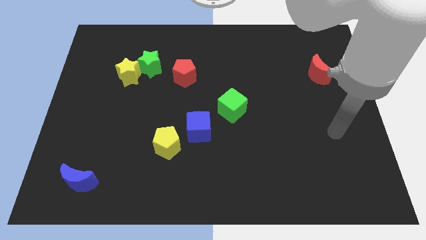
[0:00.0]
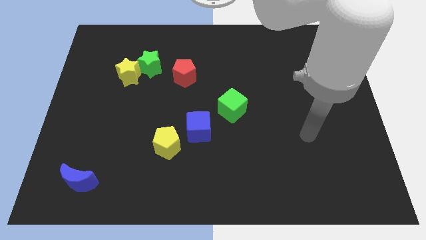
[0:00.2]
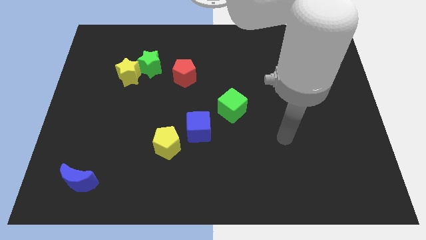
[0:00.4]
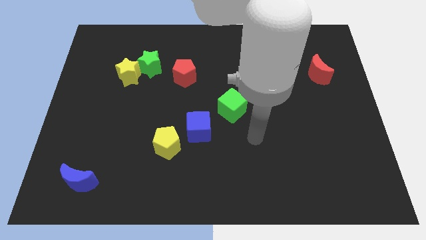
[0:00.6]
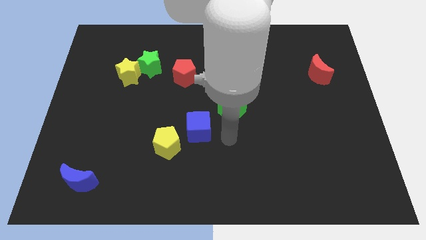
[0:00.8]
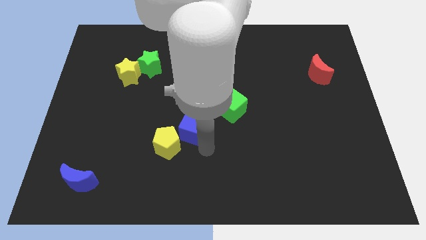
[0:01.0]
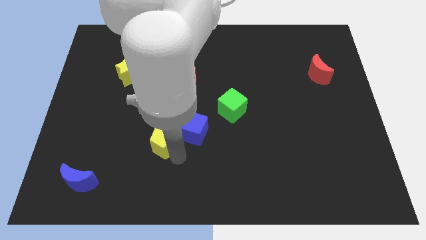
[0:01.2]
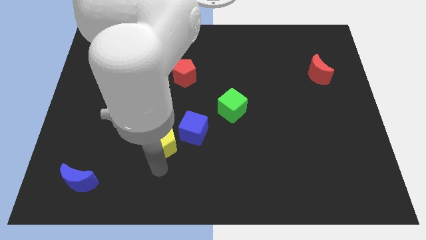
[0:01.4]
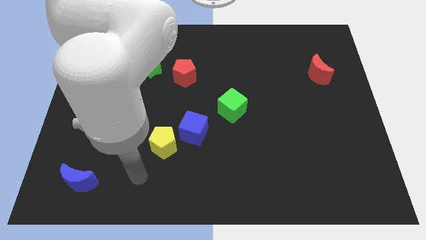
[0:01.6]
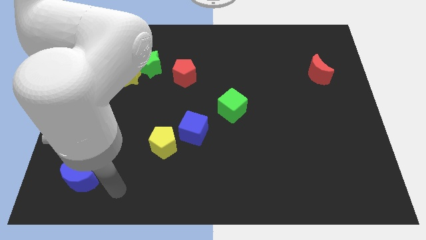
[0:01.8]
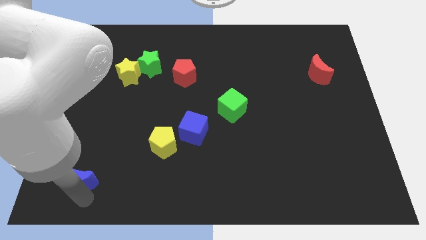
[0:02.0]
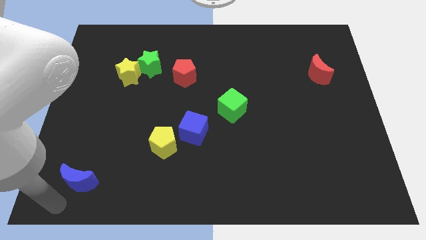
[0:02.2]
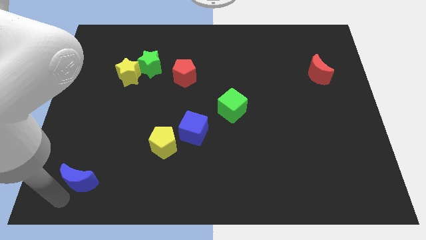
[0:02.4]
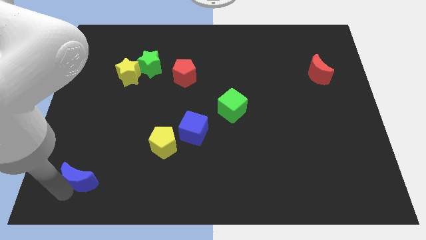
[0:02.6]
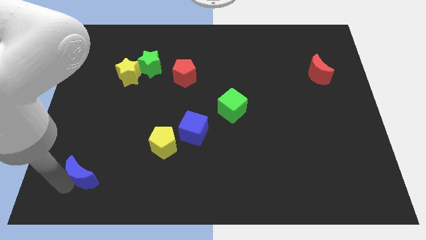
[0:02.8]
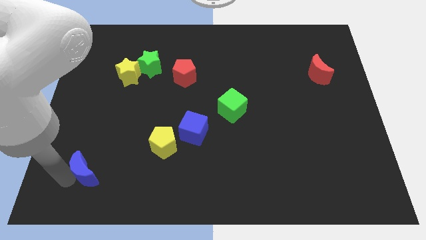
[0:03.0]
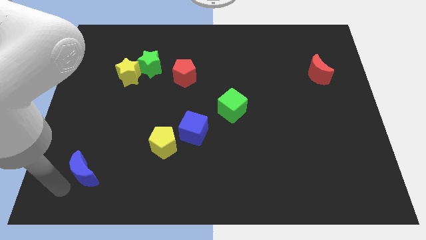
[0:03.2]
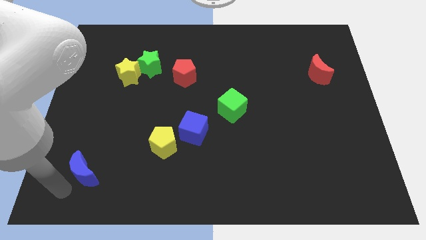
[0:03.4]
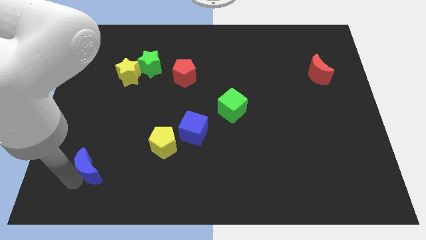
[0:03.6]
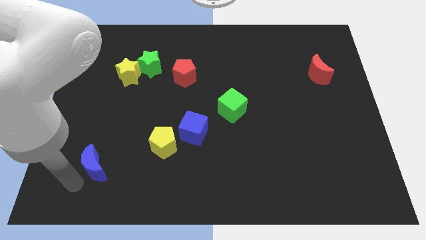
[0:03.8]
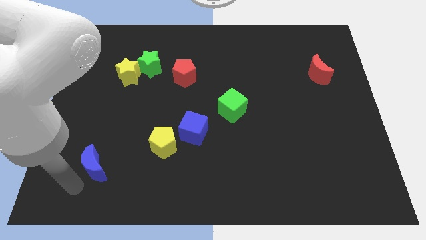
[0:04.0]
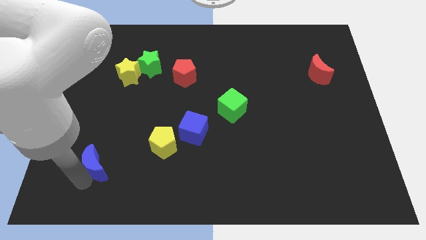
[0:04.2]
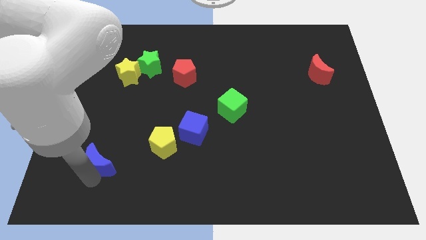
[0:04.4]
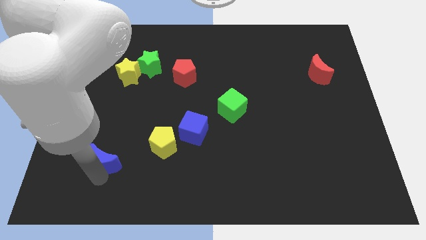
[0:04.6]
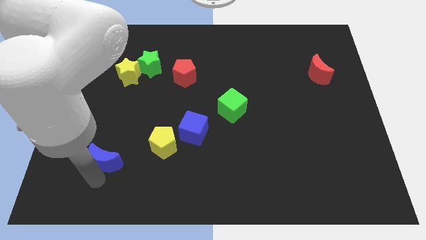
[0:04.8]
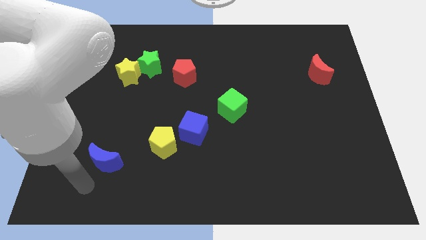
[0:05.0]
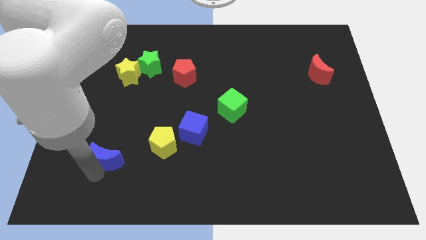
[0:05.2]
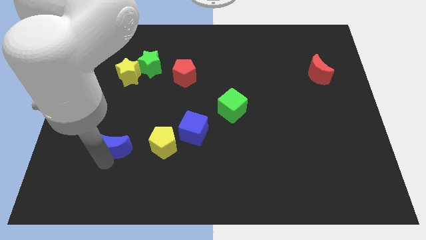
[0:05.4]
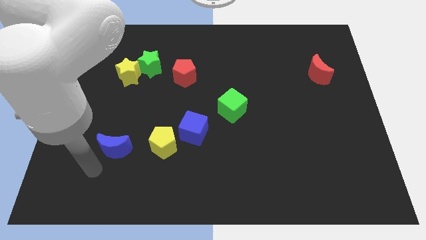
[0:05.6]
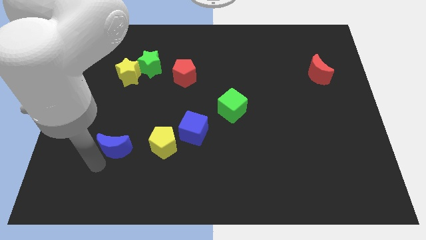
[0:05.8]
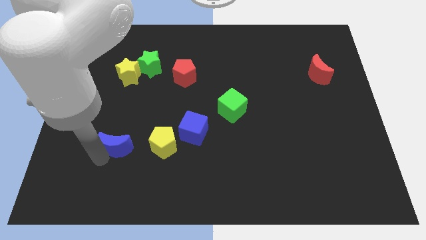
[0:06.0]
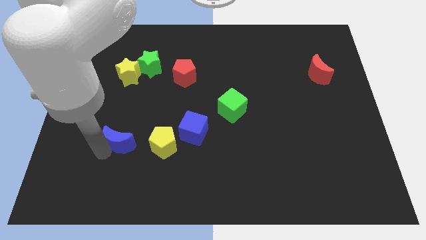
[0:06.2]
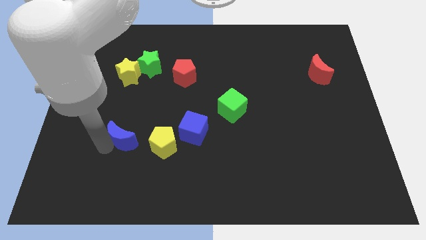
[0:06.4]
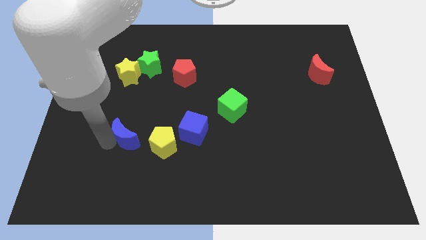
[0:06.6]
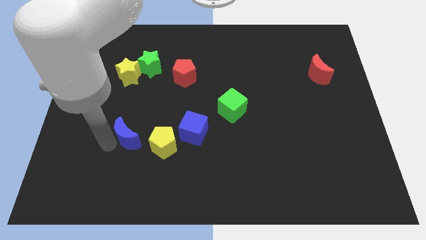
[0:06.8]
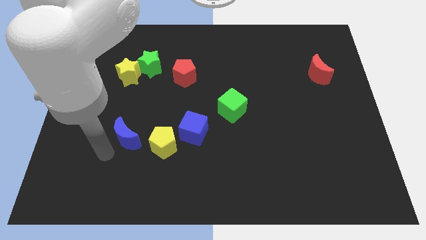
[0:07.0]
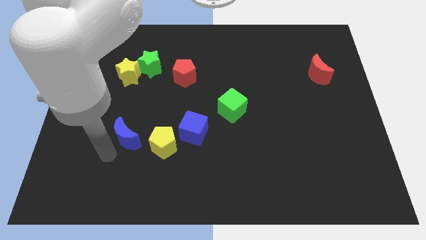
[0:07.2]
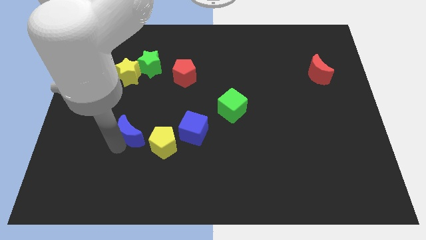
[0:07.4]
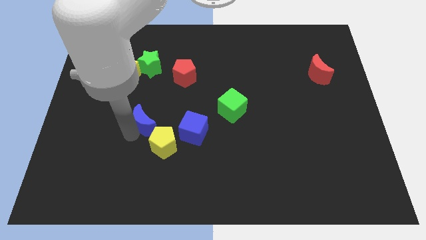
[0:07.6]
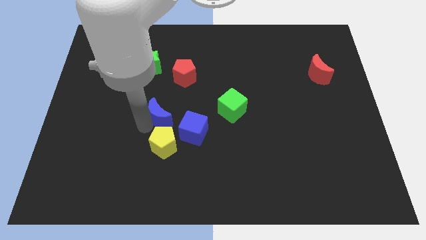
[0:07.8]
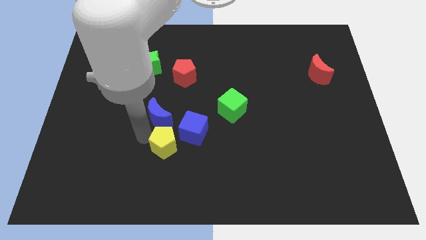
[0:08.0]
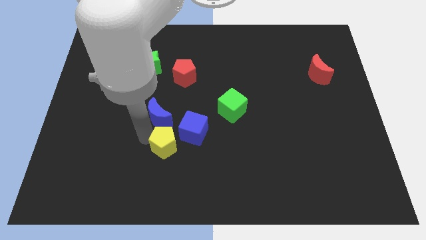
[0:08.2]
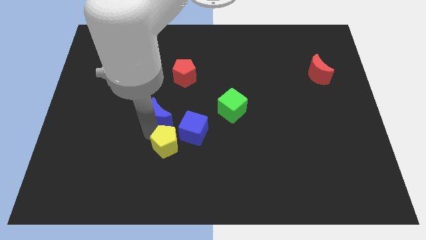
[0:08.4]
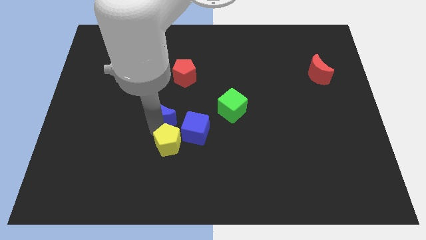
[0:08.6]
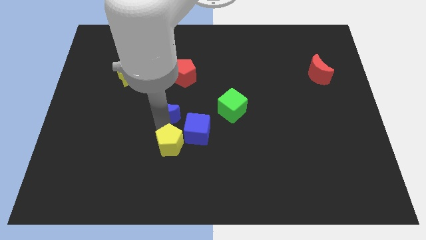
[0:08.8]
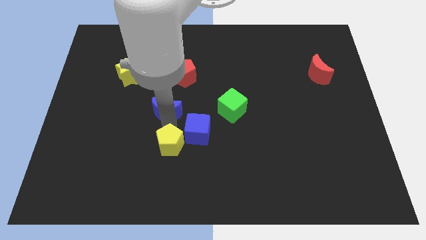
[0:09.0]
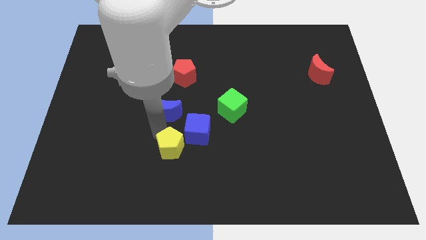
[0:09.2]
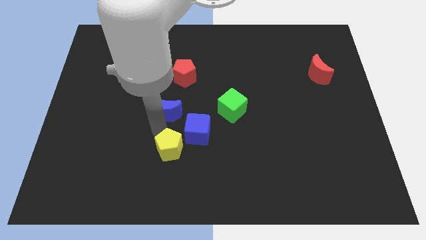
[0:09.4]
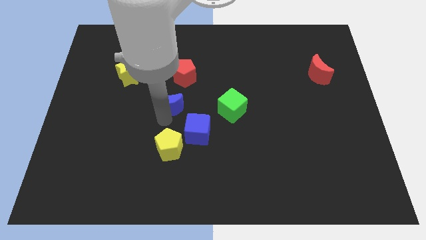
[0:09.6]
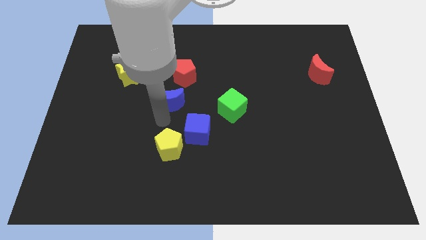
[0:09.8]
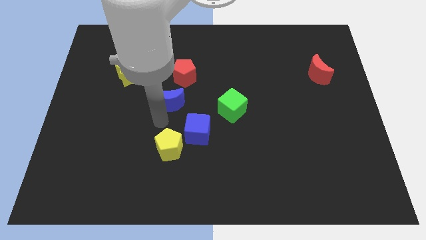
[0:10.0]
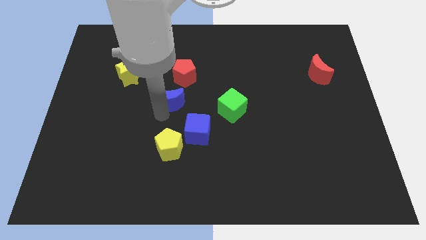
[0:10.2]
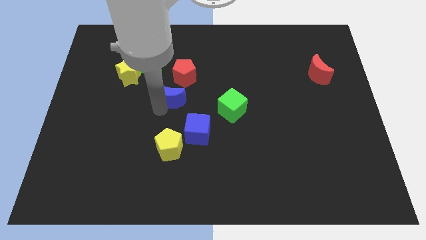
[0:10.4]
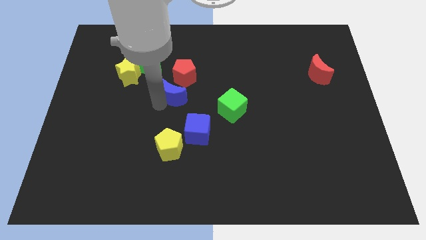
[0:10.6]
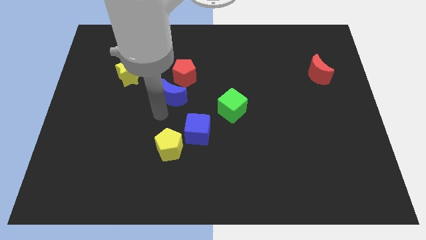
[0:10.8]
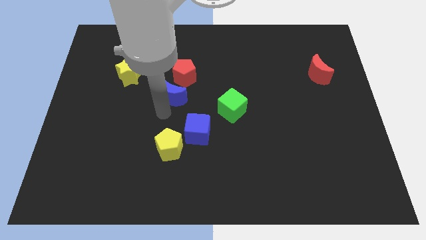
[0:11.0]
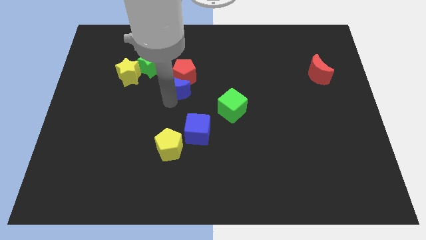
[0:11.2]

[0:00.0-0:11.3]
slide the blue moon next to the red pentagon

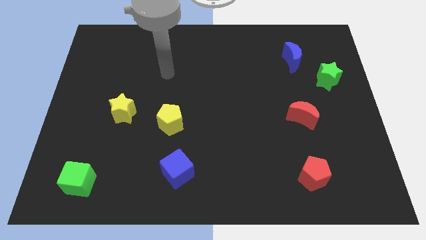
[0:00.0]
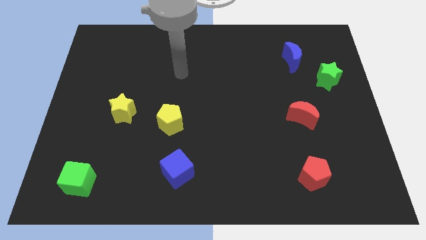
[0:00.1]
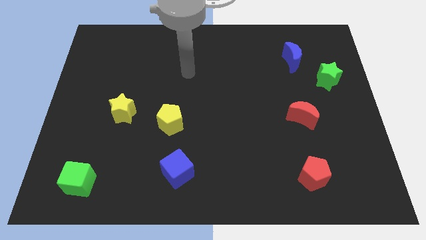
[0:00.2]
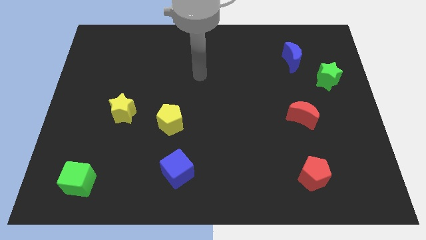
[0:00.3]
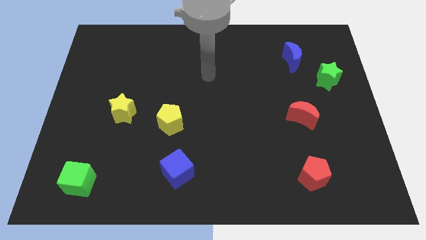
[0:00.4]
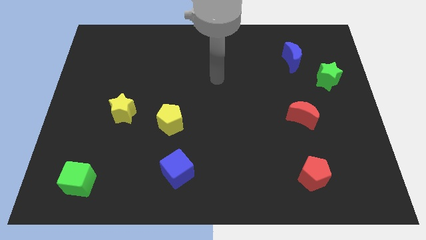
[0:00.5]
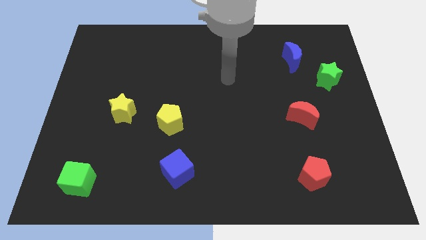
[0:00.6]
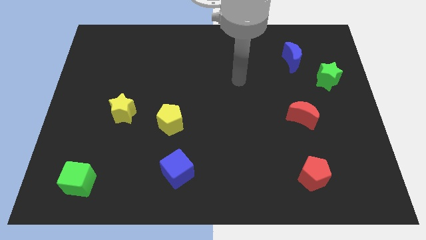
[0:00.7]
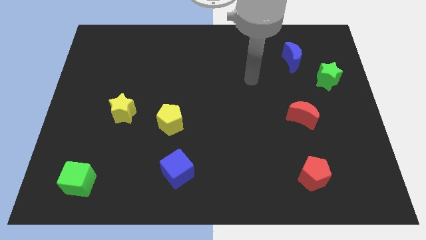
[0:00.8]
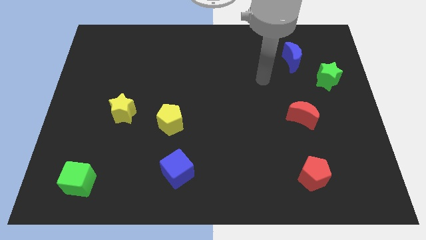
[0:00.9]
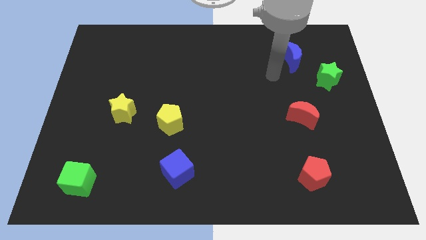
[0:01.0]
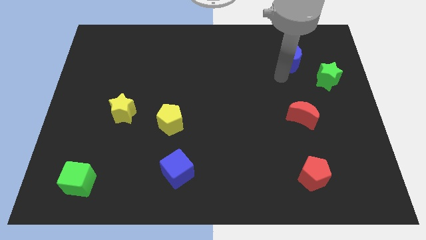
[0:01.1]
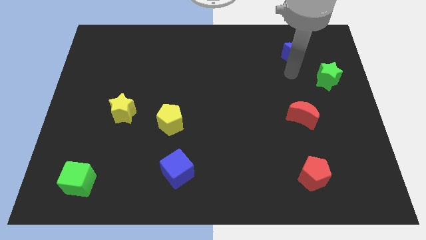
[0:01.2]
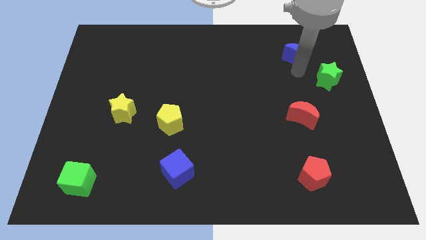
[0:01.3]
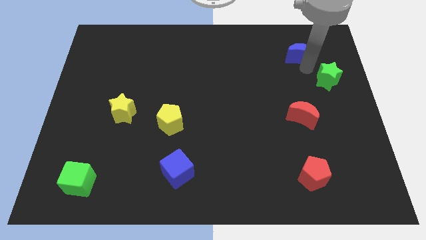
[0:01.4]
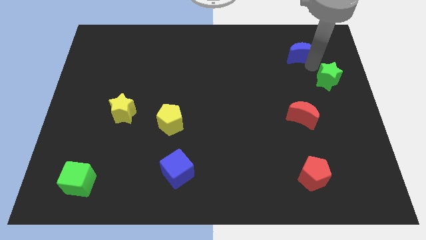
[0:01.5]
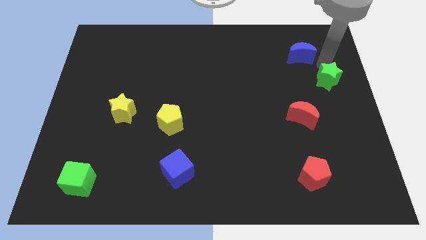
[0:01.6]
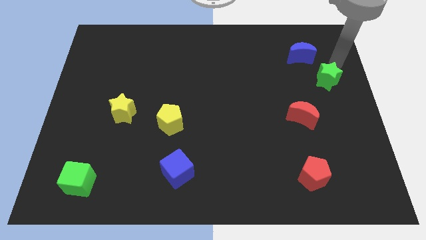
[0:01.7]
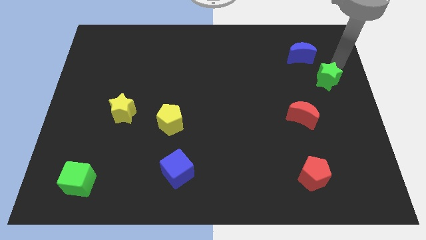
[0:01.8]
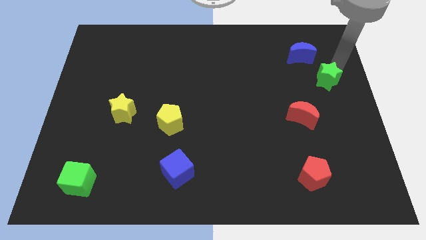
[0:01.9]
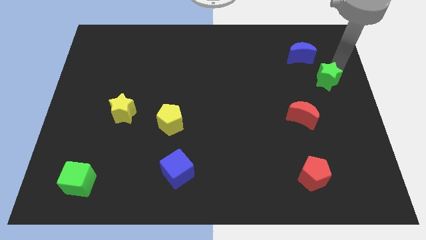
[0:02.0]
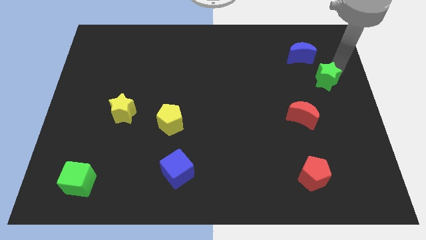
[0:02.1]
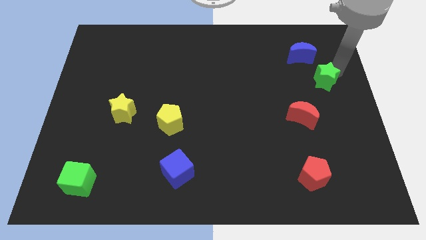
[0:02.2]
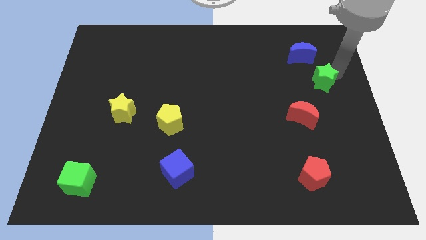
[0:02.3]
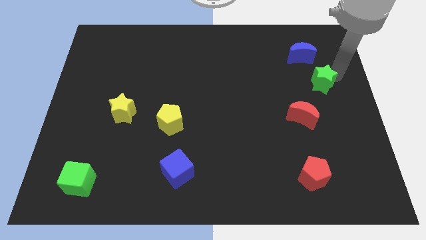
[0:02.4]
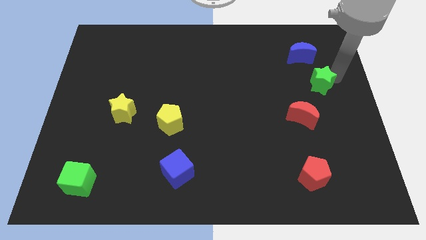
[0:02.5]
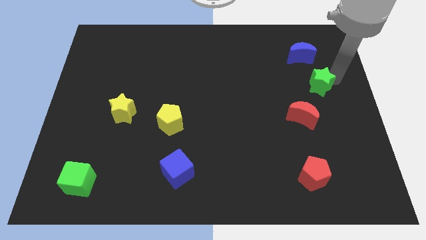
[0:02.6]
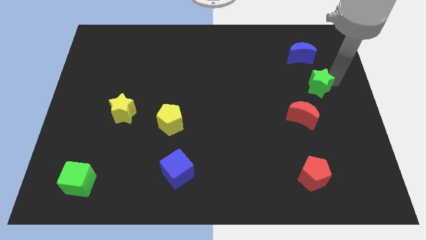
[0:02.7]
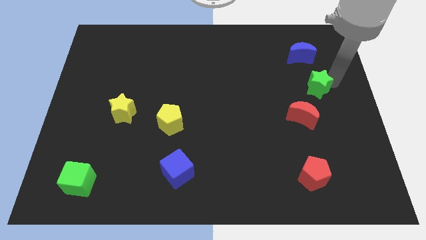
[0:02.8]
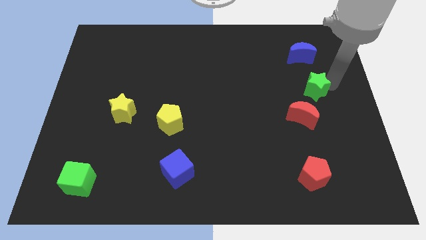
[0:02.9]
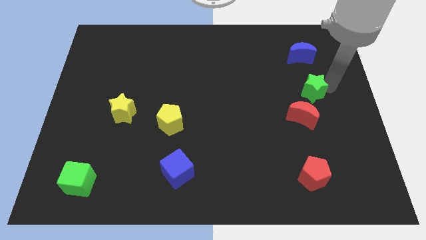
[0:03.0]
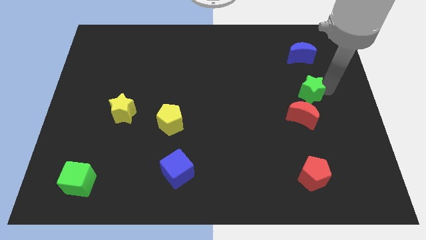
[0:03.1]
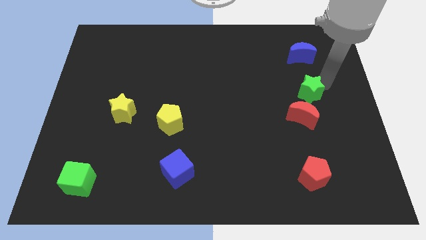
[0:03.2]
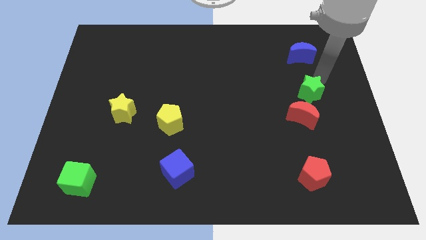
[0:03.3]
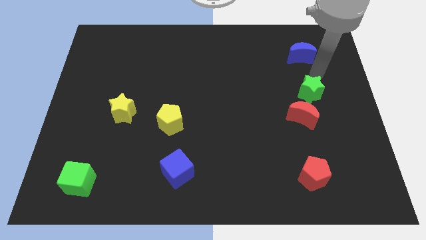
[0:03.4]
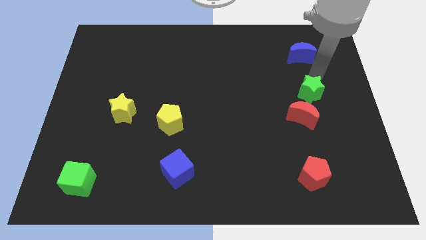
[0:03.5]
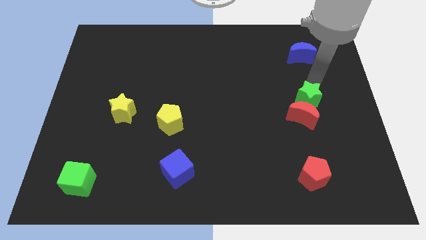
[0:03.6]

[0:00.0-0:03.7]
move the green star towards the red moon
